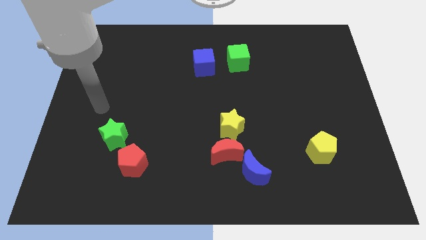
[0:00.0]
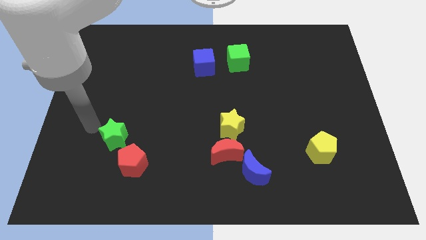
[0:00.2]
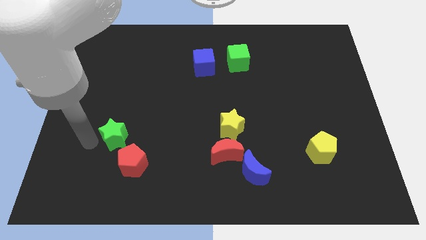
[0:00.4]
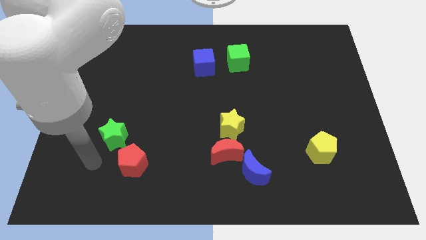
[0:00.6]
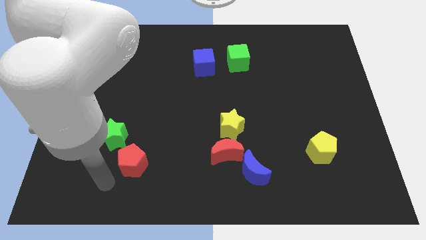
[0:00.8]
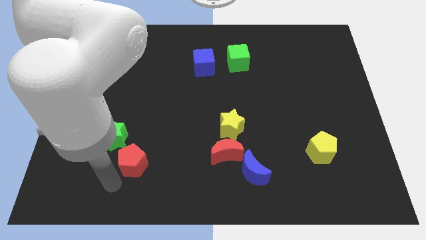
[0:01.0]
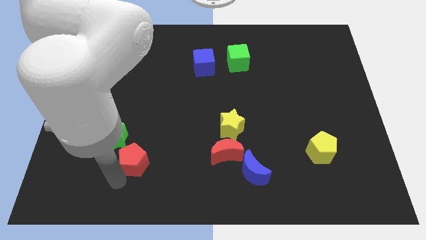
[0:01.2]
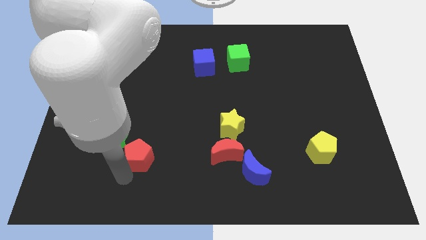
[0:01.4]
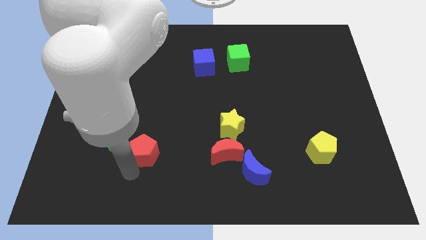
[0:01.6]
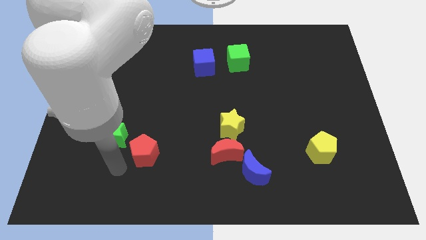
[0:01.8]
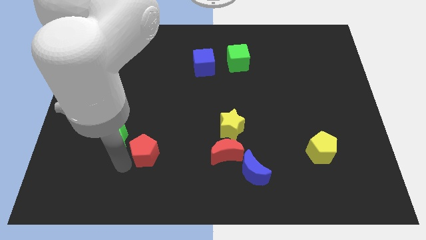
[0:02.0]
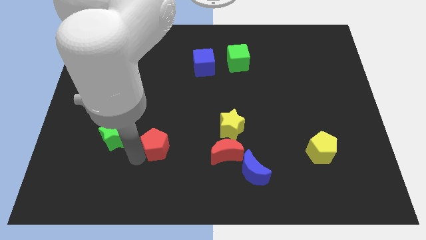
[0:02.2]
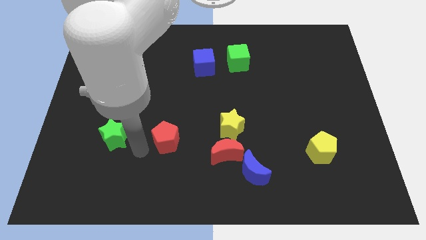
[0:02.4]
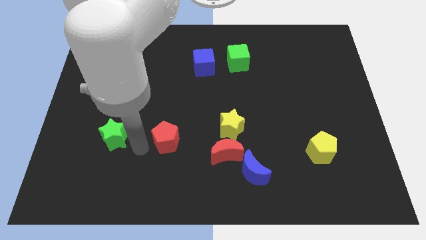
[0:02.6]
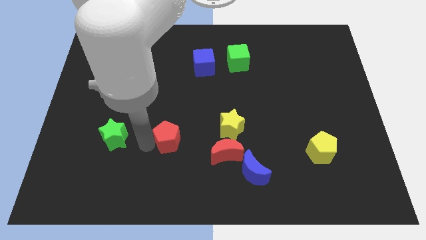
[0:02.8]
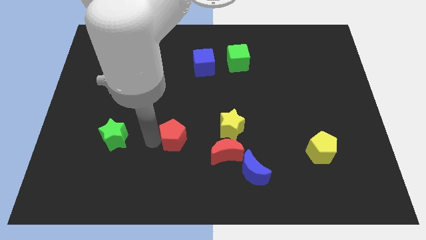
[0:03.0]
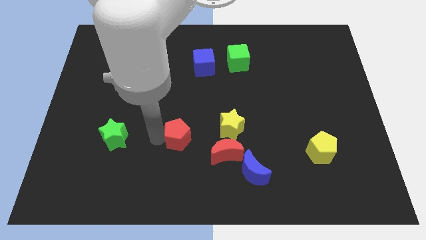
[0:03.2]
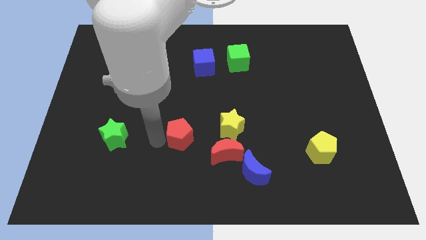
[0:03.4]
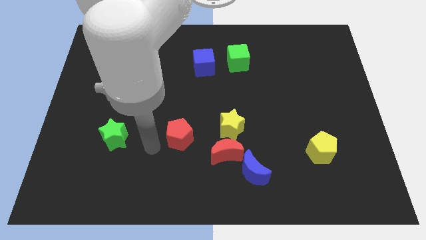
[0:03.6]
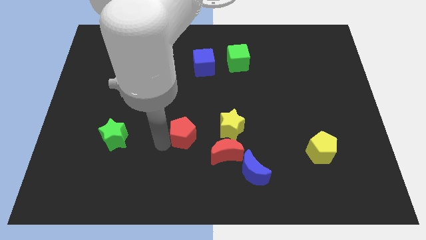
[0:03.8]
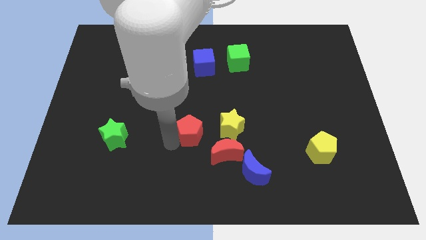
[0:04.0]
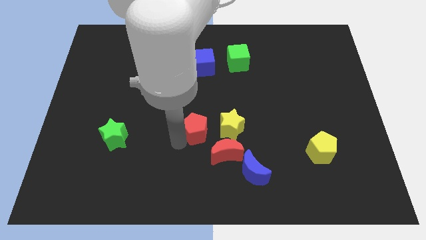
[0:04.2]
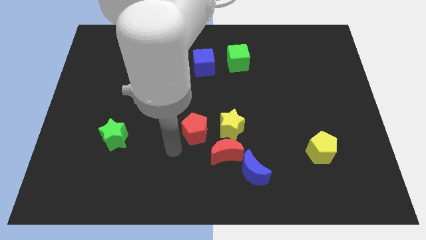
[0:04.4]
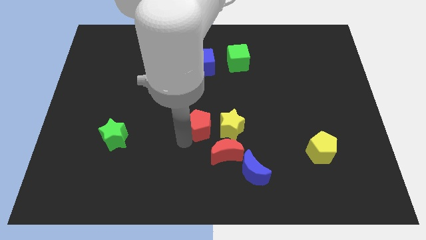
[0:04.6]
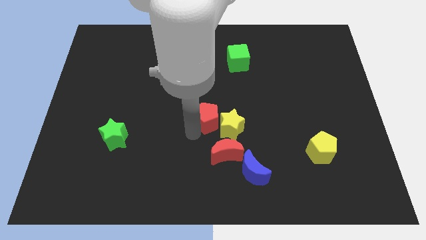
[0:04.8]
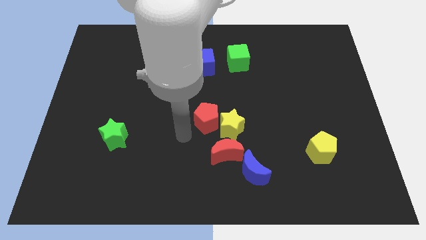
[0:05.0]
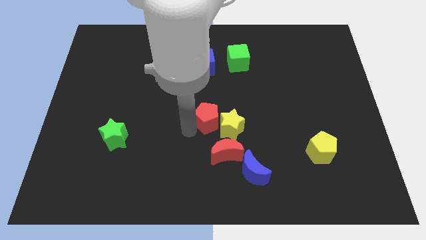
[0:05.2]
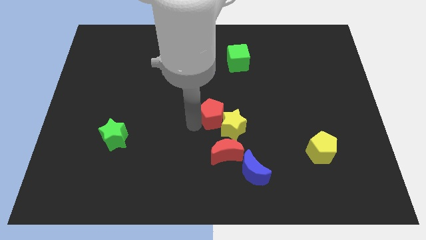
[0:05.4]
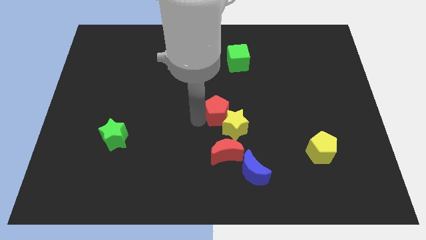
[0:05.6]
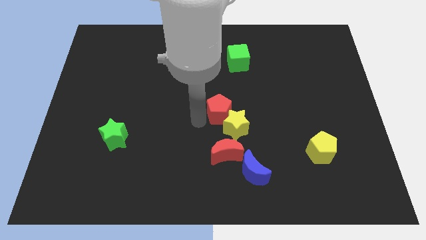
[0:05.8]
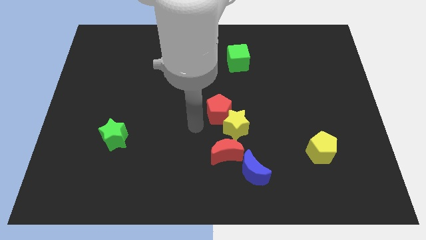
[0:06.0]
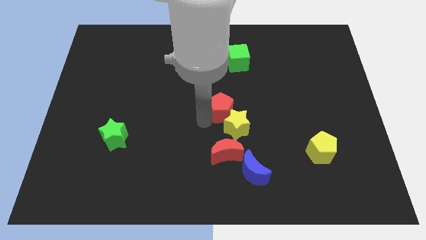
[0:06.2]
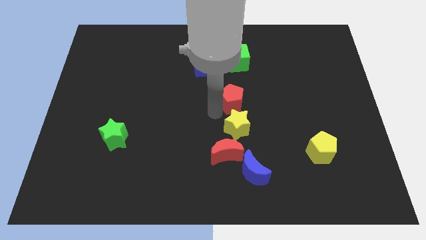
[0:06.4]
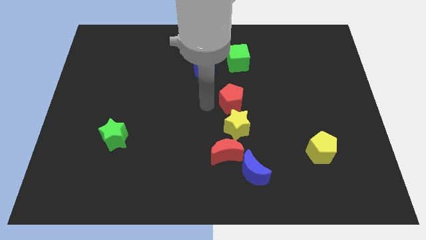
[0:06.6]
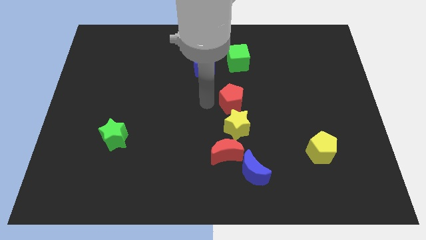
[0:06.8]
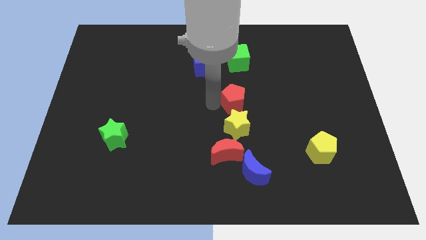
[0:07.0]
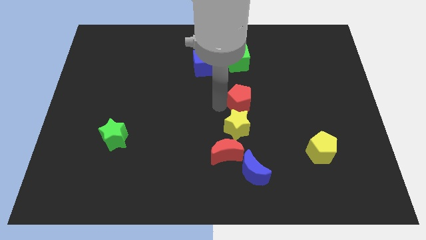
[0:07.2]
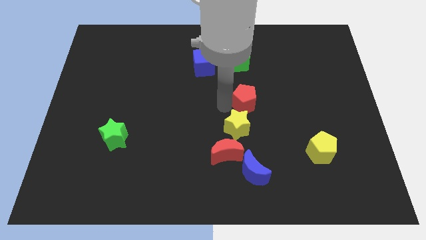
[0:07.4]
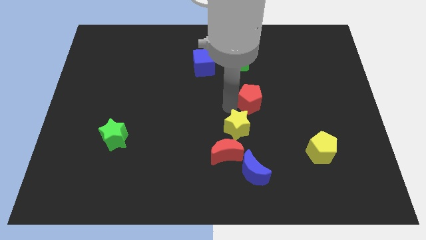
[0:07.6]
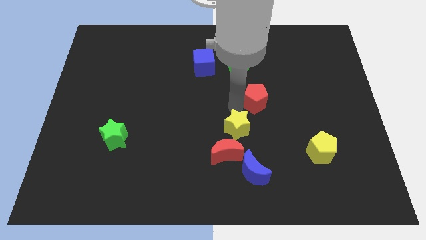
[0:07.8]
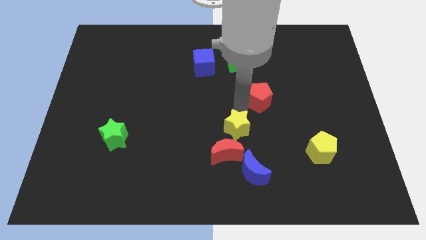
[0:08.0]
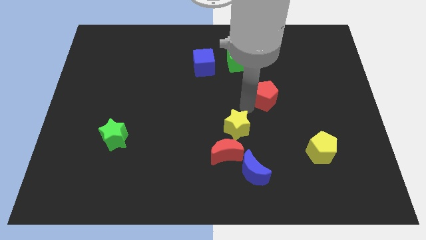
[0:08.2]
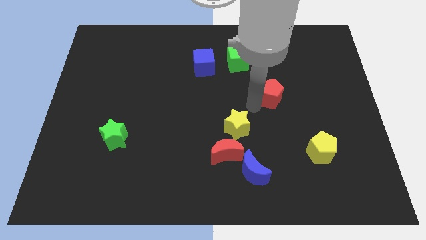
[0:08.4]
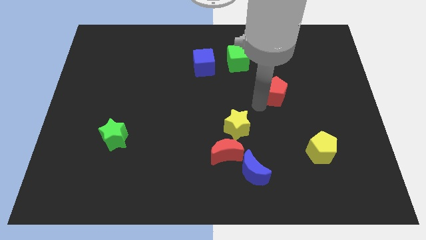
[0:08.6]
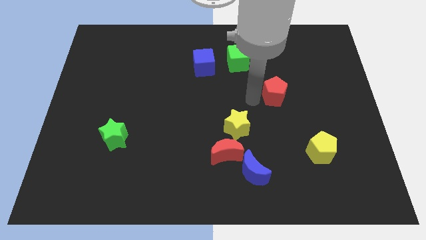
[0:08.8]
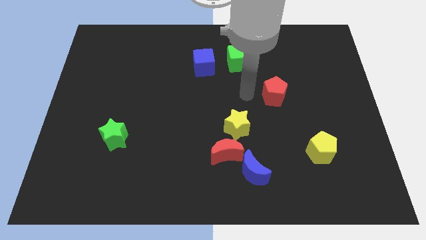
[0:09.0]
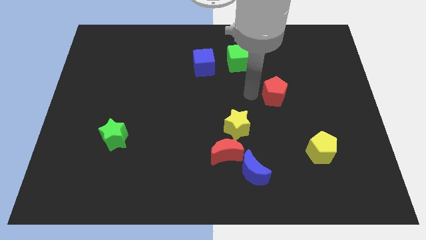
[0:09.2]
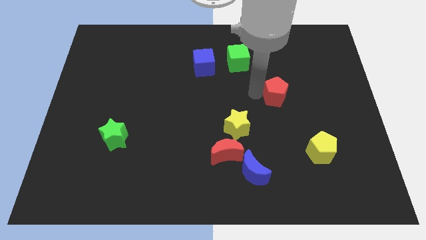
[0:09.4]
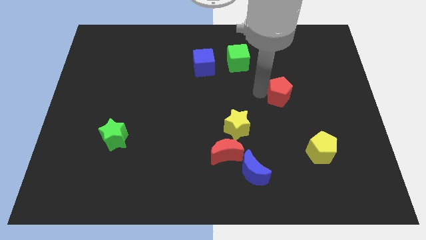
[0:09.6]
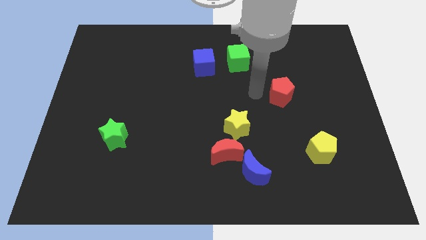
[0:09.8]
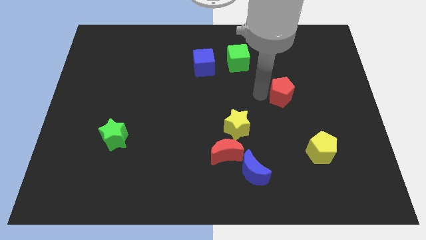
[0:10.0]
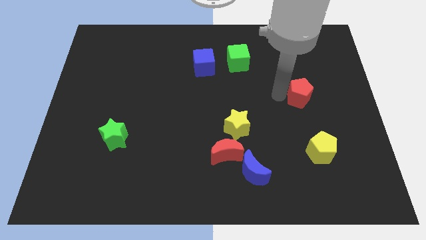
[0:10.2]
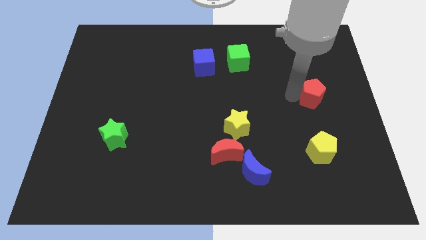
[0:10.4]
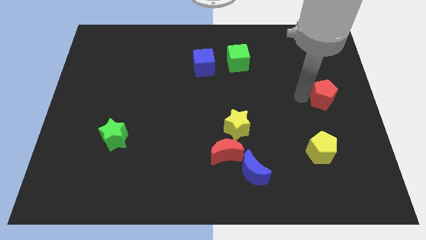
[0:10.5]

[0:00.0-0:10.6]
push the red pentagon to the right side

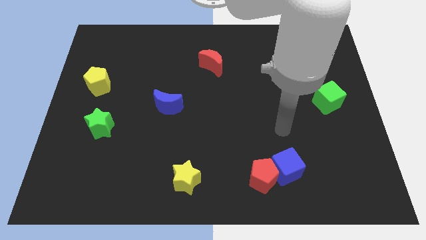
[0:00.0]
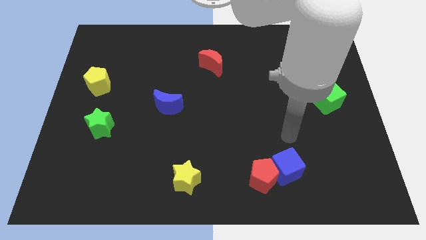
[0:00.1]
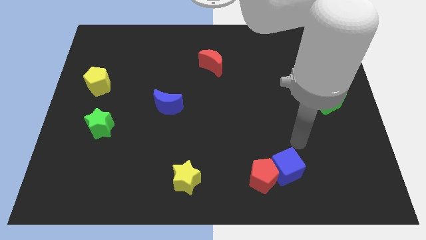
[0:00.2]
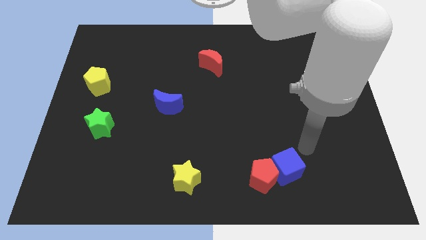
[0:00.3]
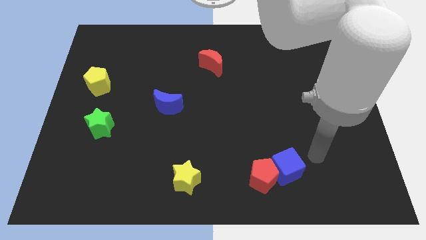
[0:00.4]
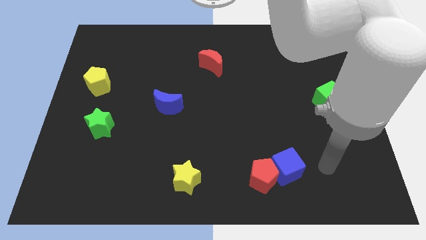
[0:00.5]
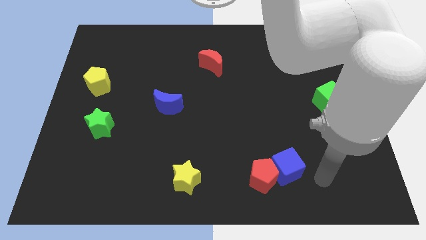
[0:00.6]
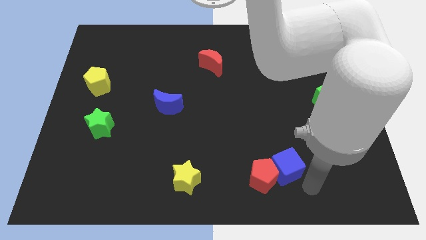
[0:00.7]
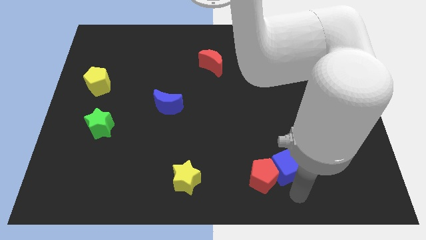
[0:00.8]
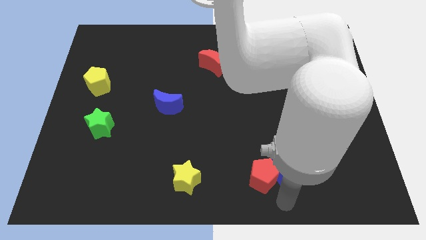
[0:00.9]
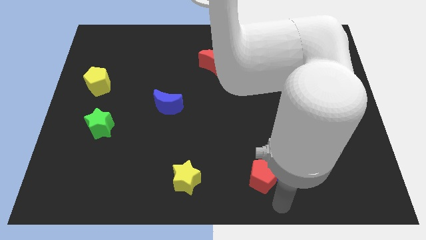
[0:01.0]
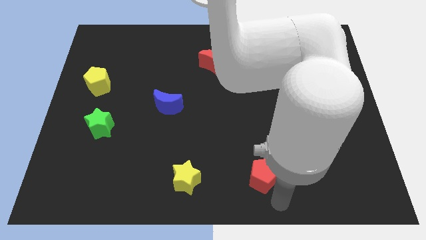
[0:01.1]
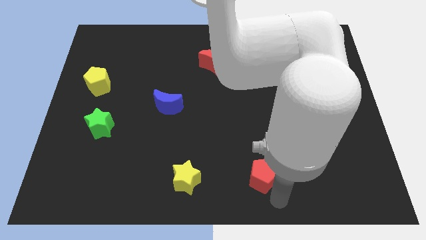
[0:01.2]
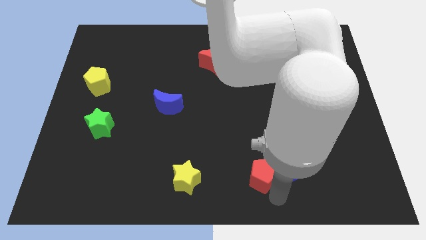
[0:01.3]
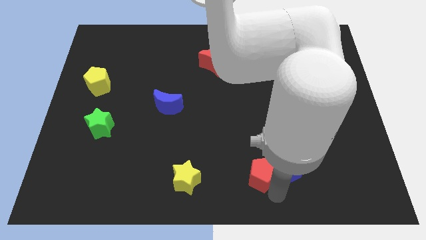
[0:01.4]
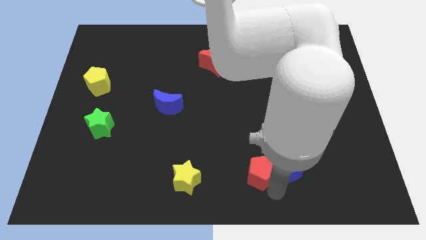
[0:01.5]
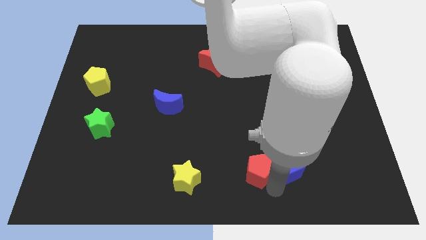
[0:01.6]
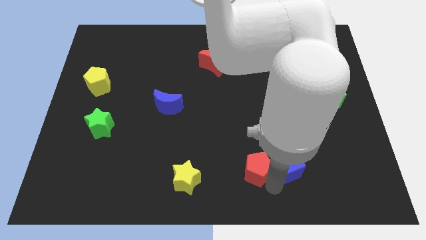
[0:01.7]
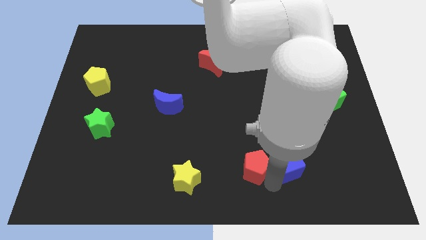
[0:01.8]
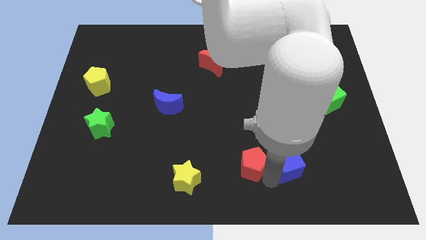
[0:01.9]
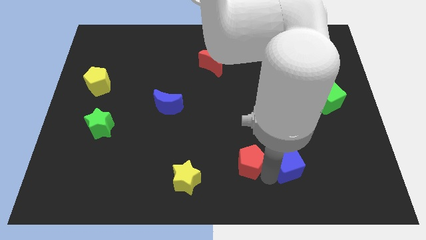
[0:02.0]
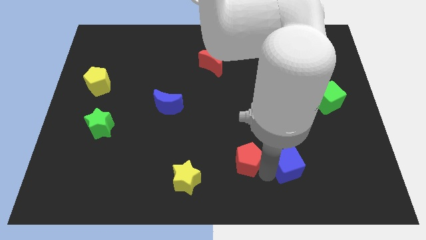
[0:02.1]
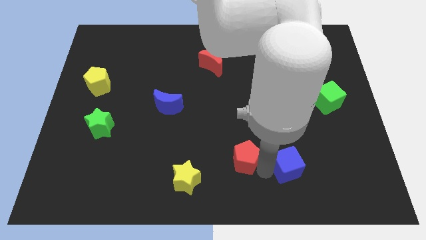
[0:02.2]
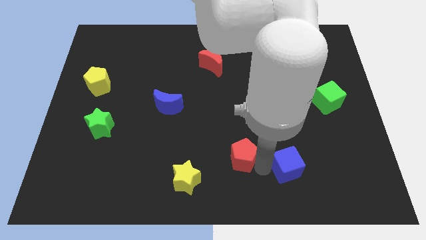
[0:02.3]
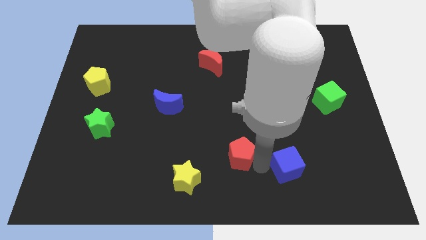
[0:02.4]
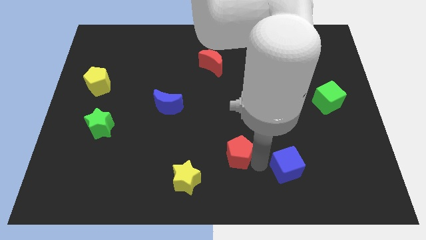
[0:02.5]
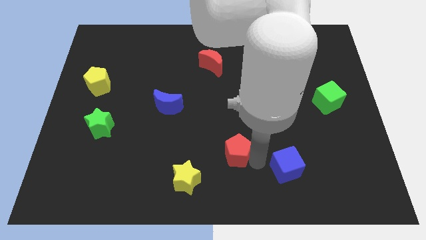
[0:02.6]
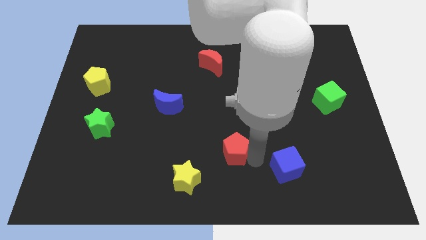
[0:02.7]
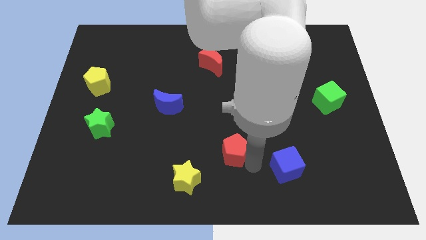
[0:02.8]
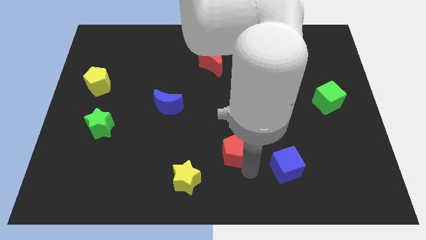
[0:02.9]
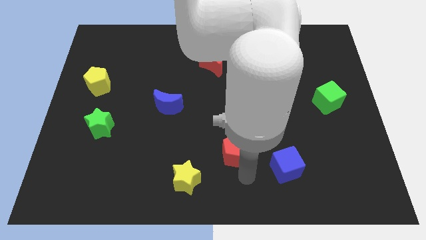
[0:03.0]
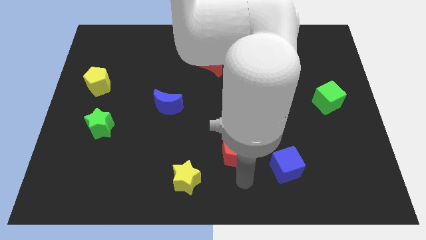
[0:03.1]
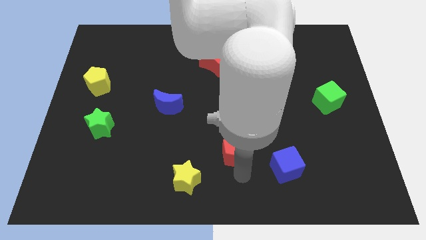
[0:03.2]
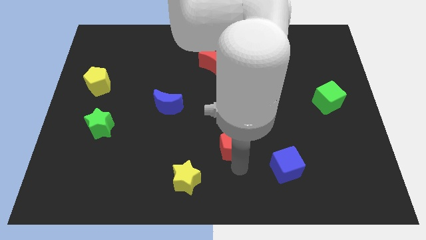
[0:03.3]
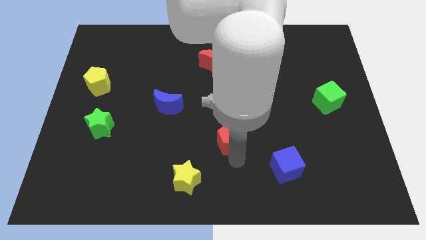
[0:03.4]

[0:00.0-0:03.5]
move the red pentagon to the center of the board
